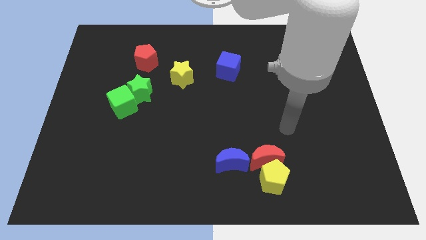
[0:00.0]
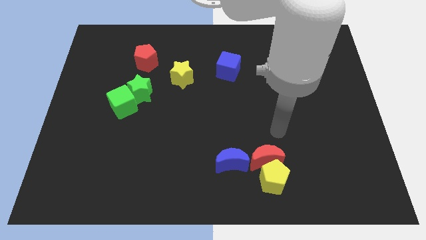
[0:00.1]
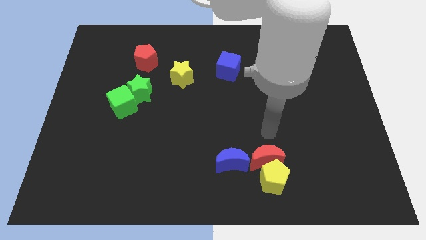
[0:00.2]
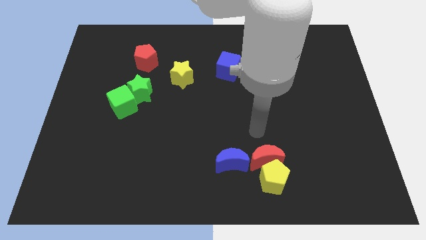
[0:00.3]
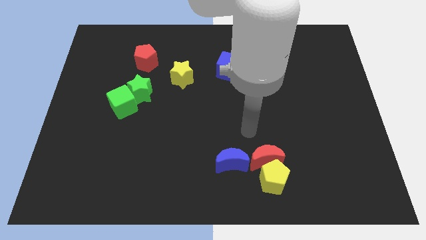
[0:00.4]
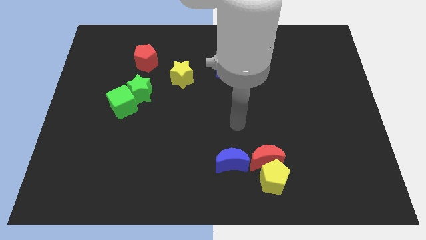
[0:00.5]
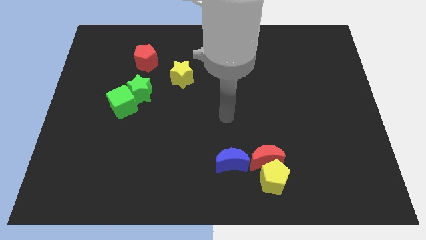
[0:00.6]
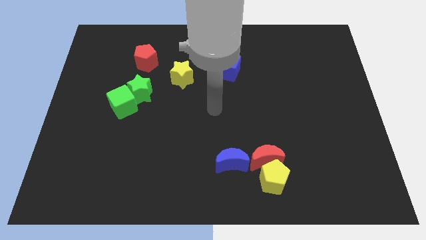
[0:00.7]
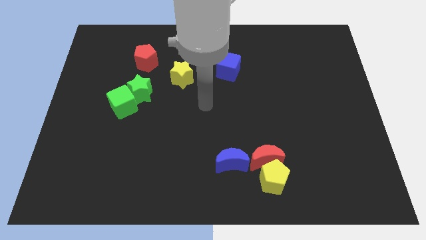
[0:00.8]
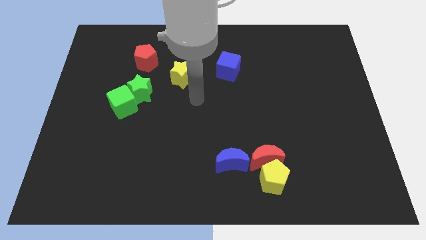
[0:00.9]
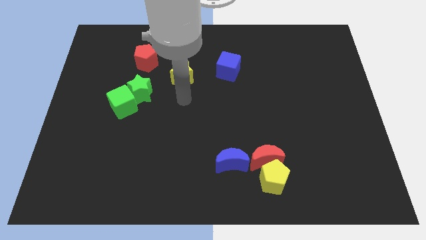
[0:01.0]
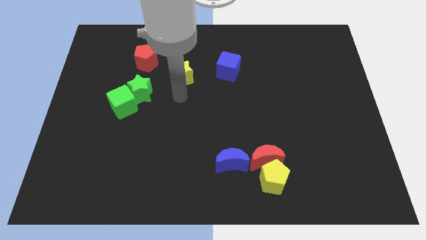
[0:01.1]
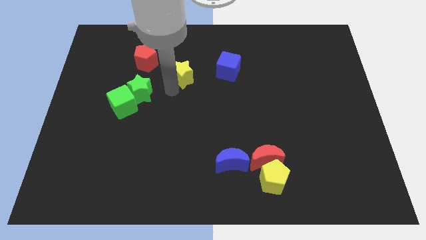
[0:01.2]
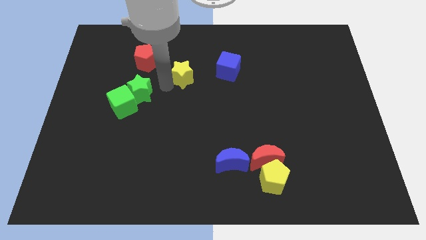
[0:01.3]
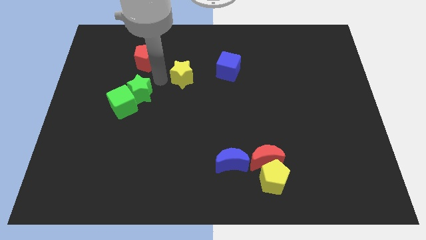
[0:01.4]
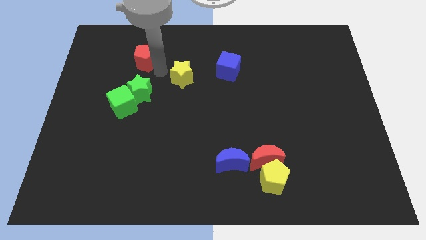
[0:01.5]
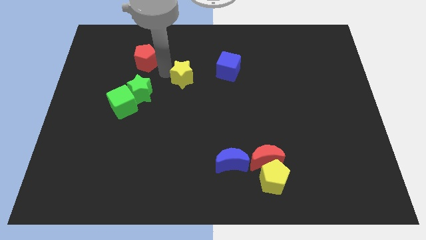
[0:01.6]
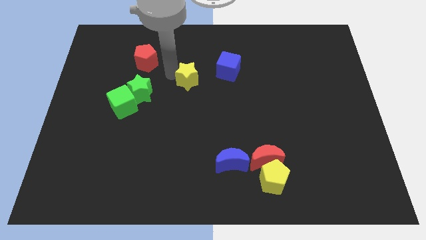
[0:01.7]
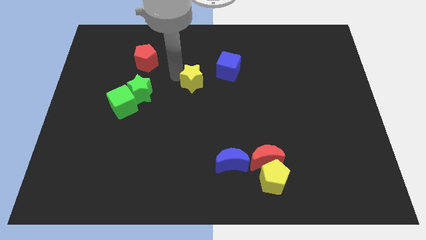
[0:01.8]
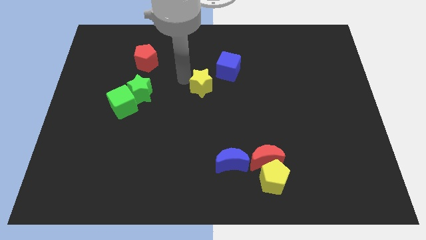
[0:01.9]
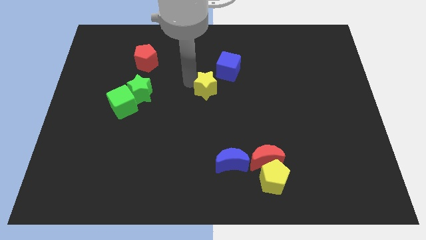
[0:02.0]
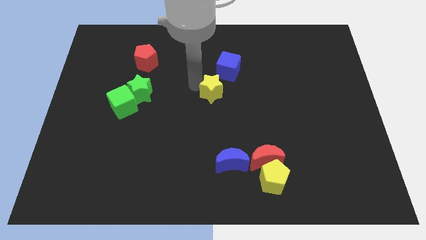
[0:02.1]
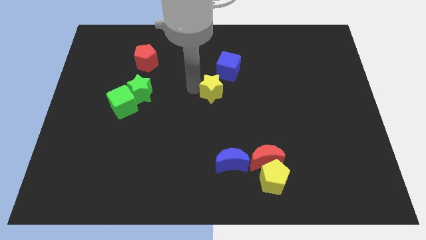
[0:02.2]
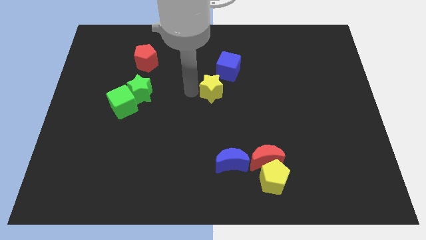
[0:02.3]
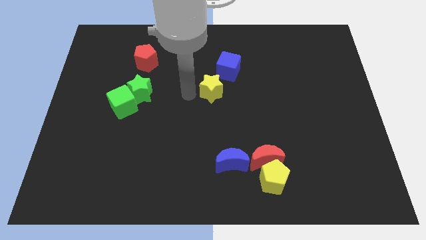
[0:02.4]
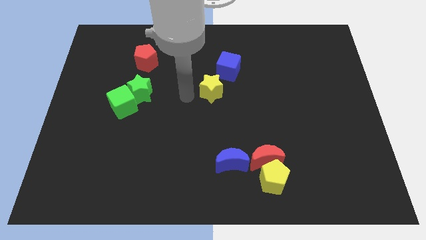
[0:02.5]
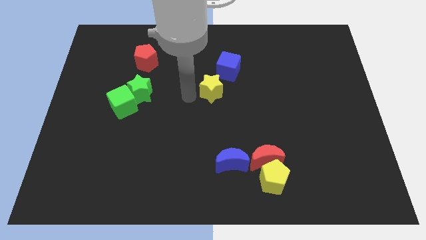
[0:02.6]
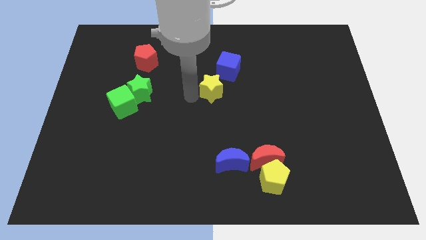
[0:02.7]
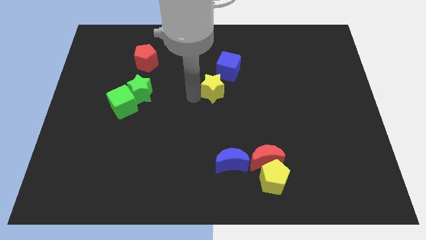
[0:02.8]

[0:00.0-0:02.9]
slightly move the yellow star right

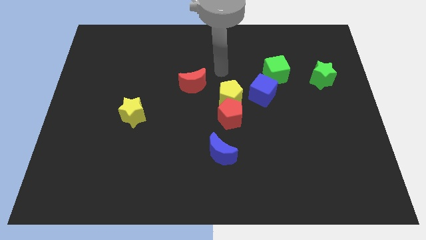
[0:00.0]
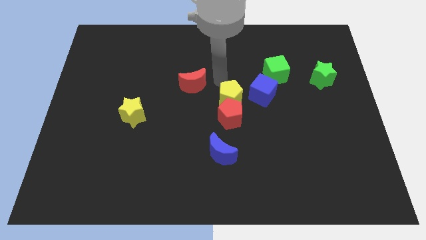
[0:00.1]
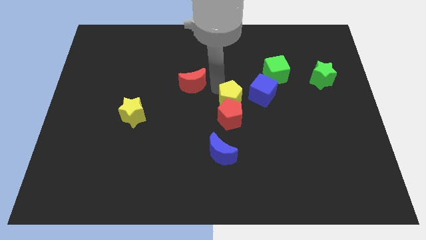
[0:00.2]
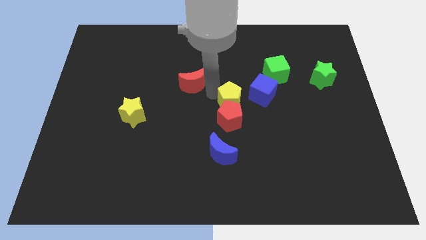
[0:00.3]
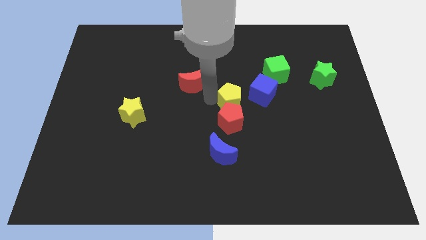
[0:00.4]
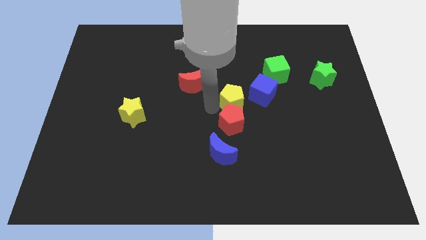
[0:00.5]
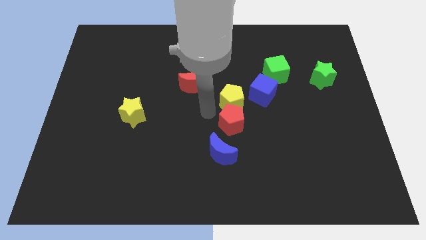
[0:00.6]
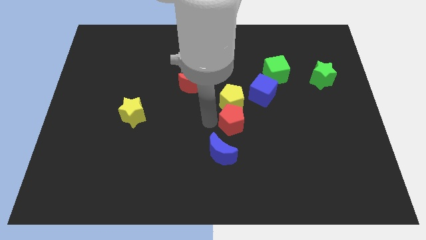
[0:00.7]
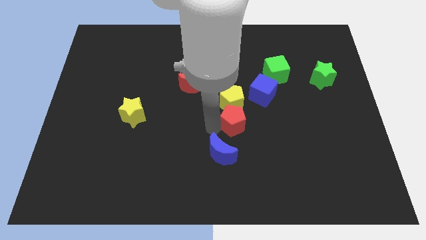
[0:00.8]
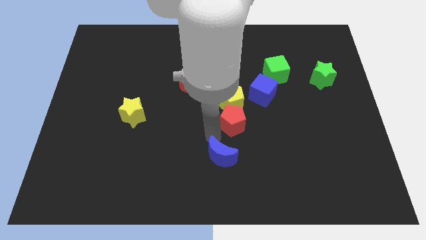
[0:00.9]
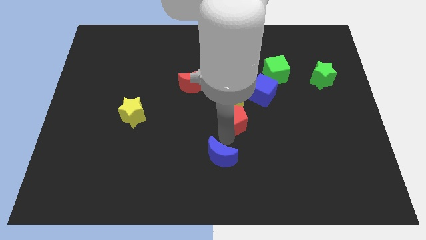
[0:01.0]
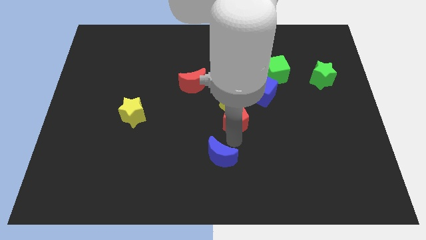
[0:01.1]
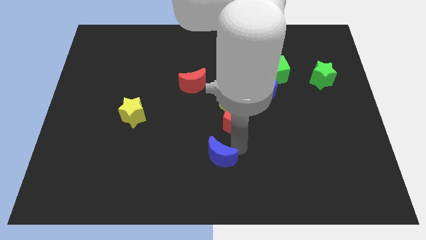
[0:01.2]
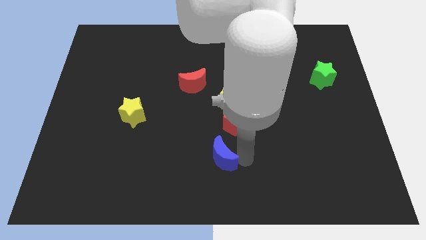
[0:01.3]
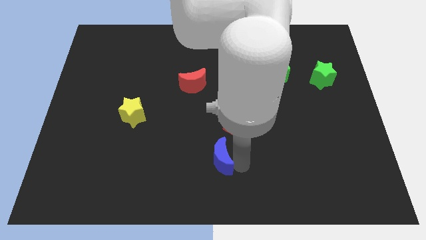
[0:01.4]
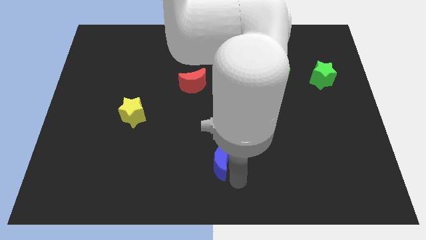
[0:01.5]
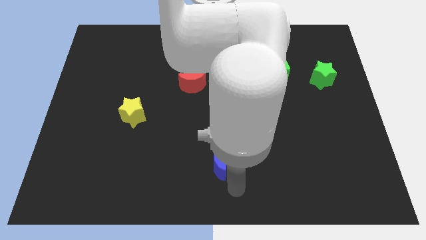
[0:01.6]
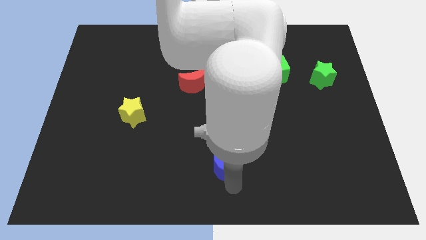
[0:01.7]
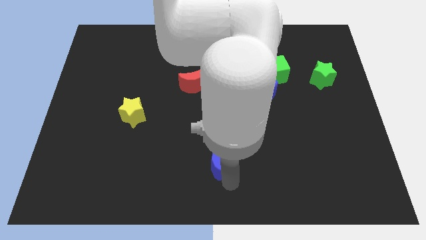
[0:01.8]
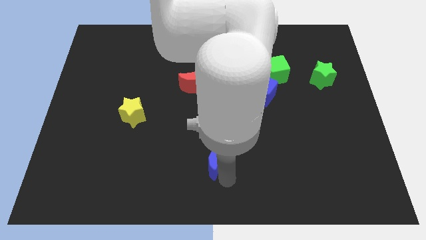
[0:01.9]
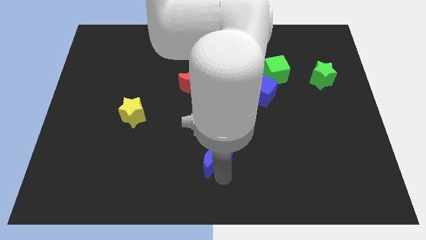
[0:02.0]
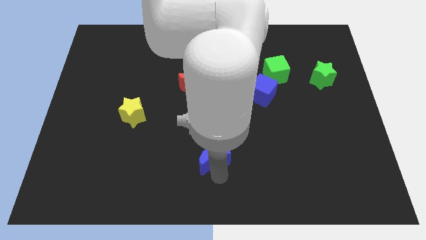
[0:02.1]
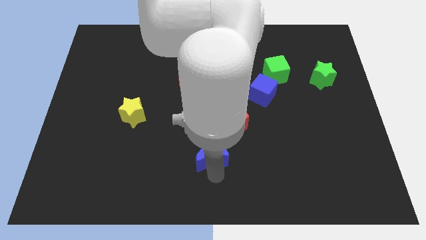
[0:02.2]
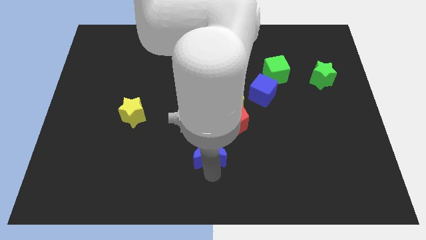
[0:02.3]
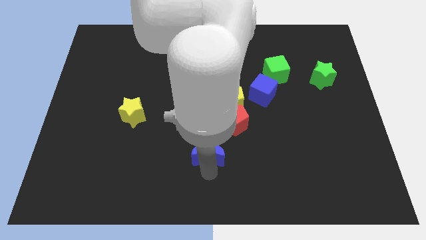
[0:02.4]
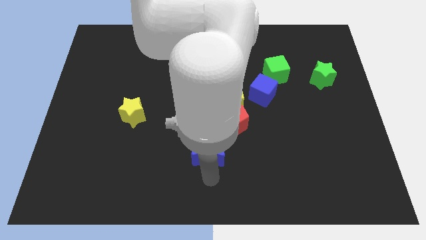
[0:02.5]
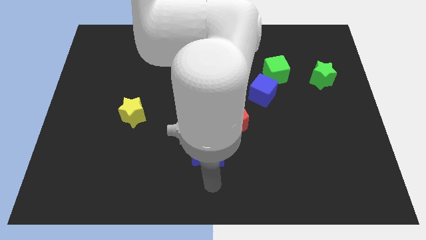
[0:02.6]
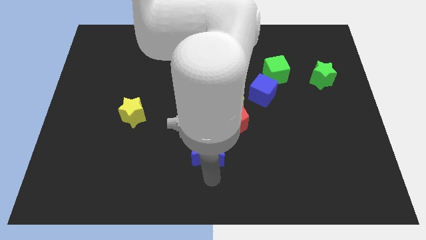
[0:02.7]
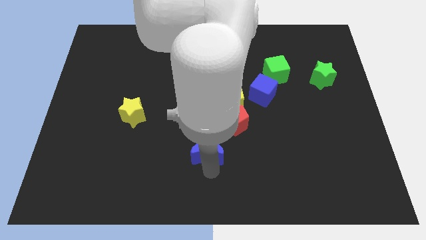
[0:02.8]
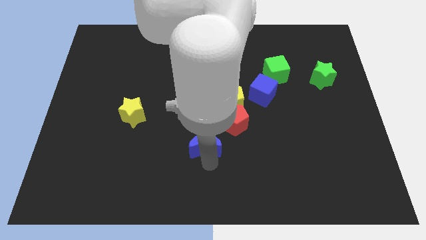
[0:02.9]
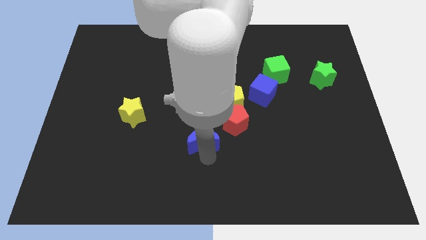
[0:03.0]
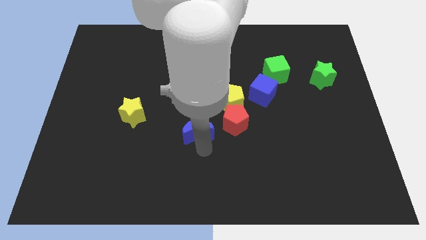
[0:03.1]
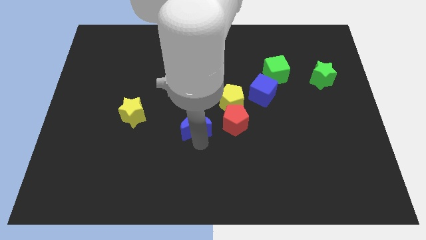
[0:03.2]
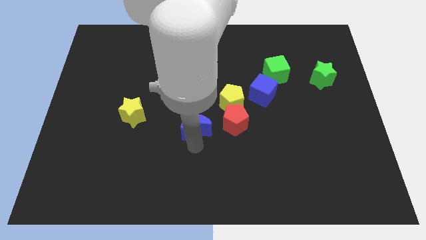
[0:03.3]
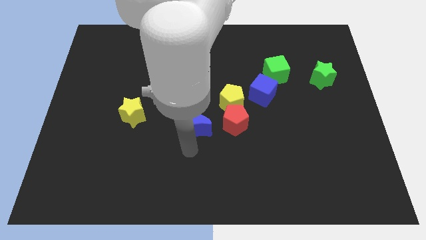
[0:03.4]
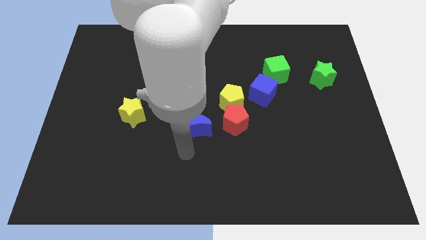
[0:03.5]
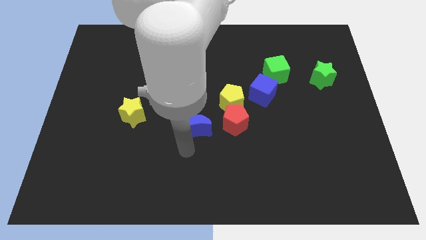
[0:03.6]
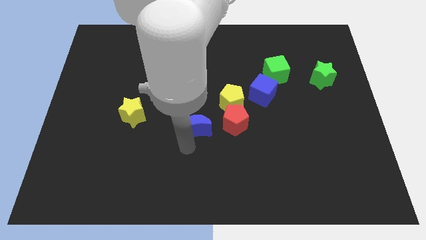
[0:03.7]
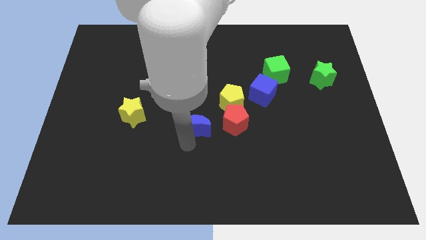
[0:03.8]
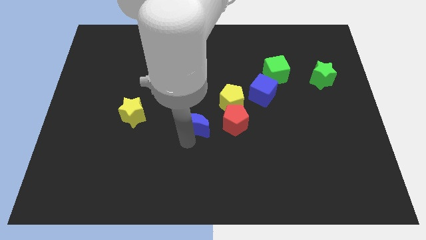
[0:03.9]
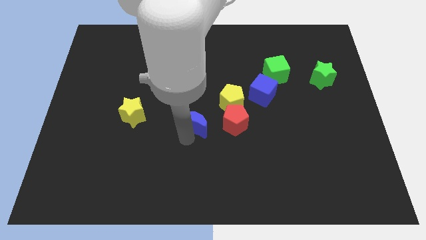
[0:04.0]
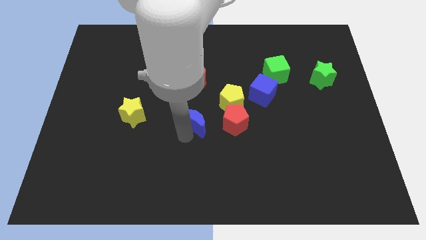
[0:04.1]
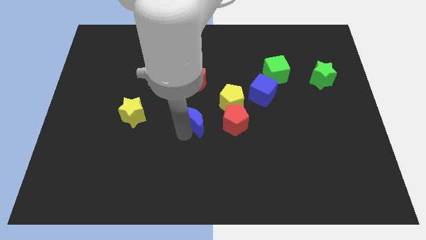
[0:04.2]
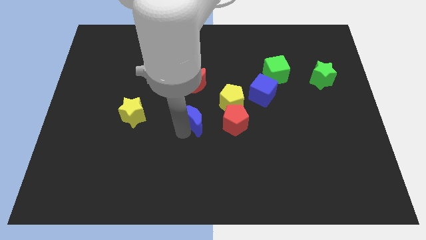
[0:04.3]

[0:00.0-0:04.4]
slightly slide the blue moon up

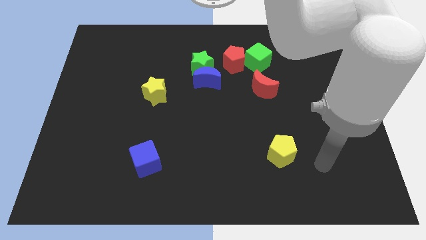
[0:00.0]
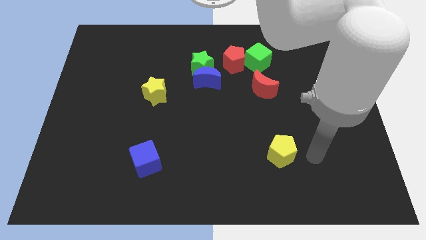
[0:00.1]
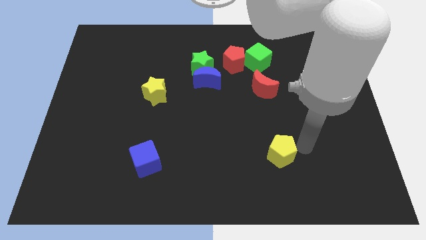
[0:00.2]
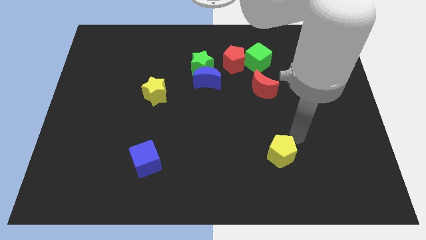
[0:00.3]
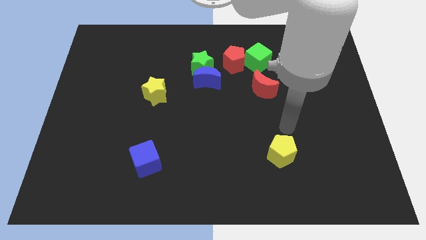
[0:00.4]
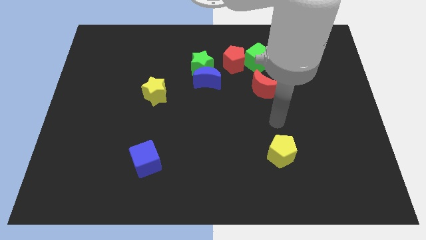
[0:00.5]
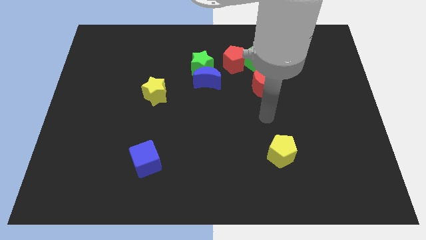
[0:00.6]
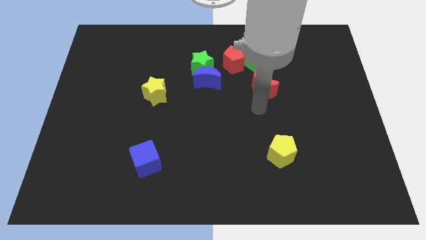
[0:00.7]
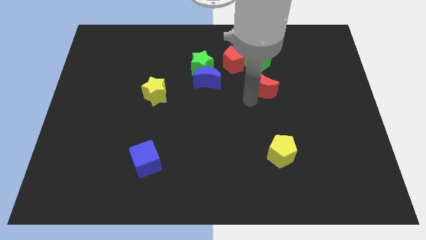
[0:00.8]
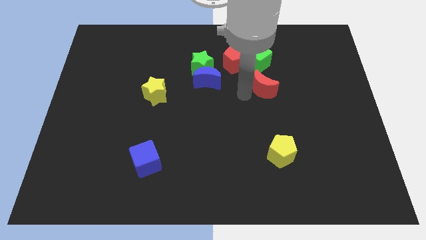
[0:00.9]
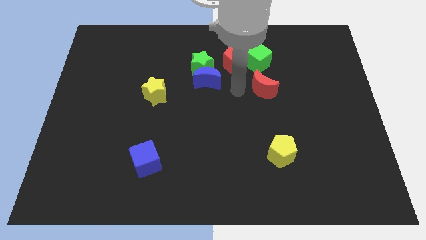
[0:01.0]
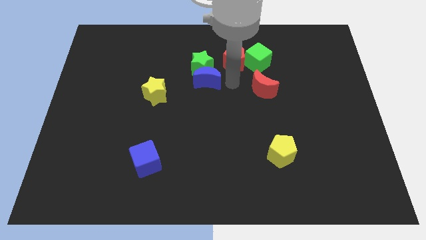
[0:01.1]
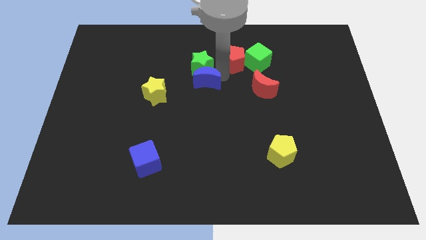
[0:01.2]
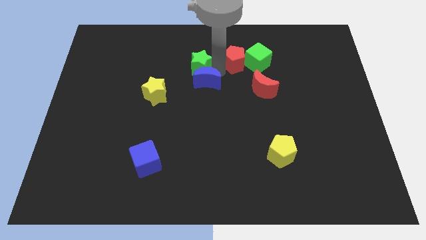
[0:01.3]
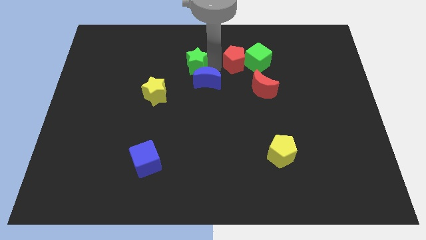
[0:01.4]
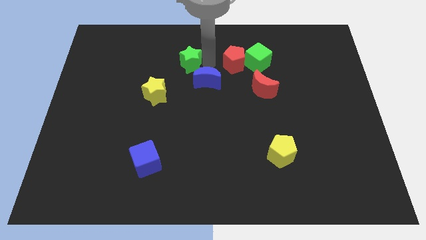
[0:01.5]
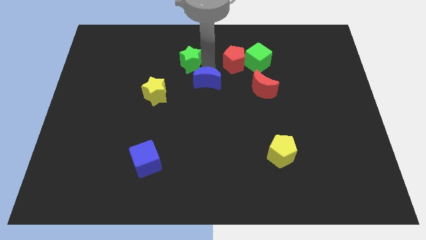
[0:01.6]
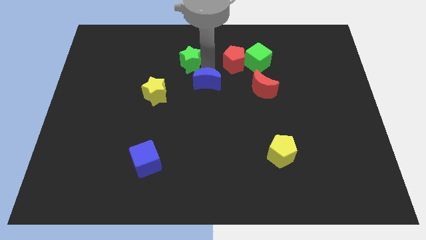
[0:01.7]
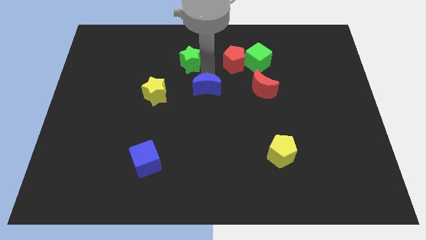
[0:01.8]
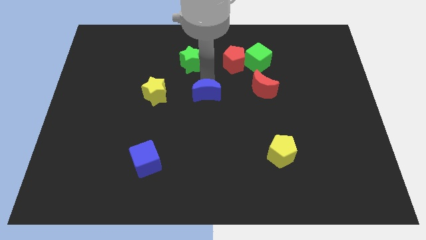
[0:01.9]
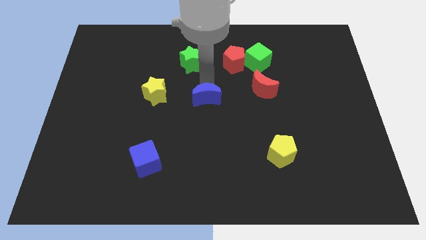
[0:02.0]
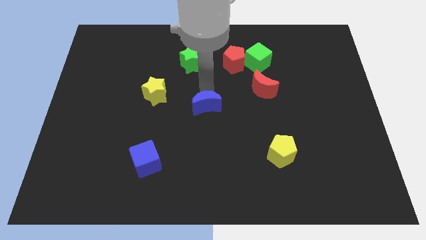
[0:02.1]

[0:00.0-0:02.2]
slide the blue moon somewhat down
